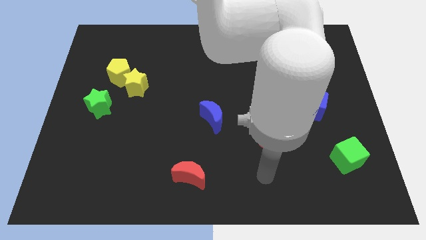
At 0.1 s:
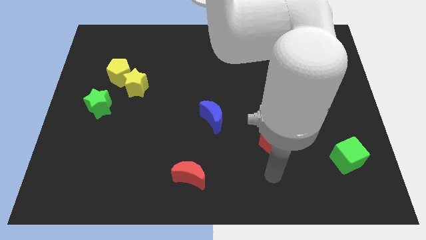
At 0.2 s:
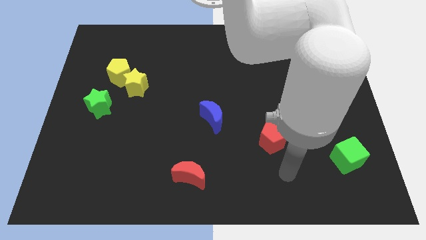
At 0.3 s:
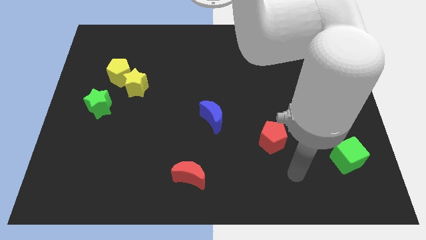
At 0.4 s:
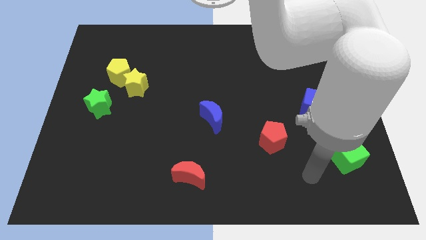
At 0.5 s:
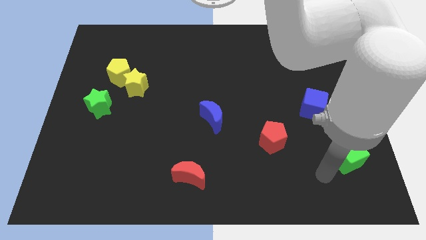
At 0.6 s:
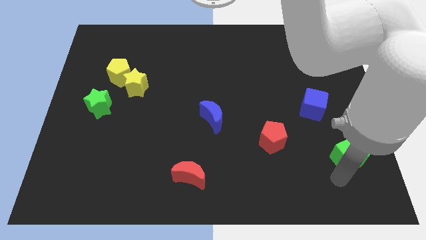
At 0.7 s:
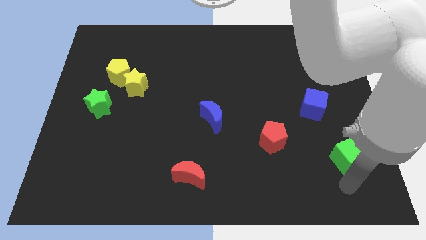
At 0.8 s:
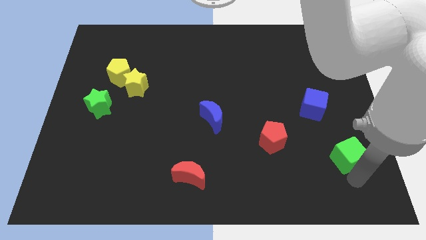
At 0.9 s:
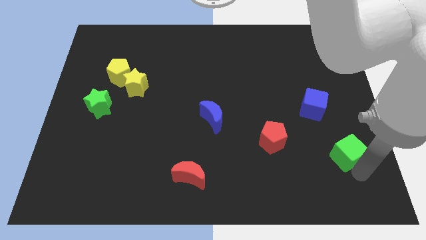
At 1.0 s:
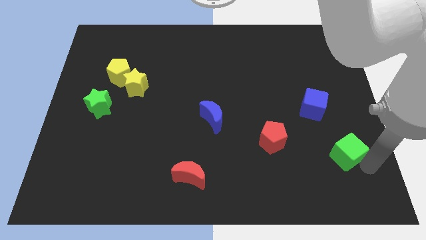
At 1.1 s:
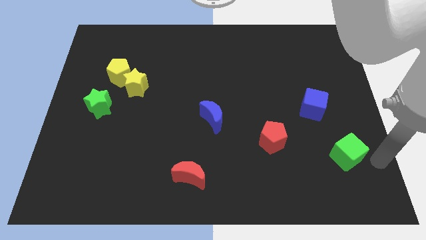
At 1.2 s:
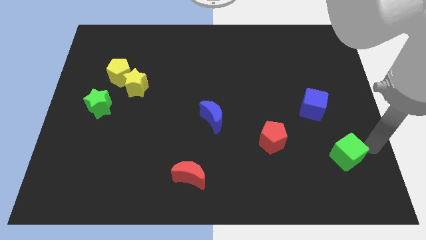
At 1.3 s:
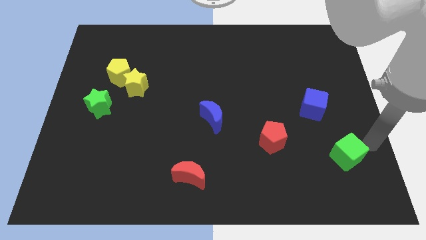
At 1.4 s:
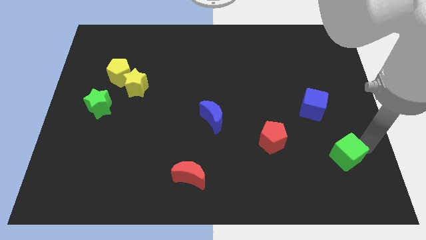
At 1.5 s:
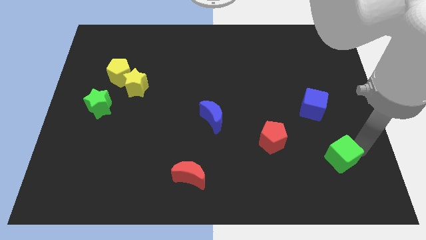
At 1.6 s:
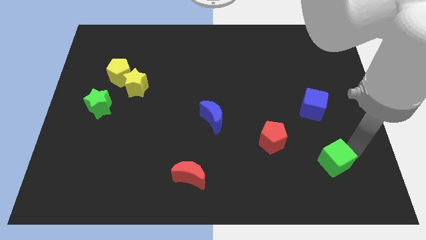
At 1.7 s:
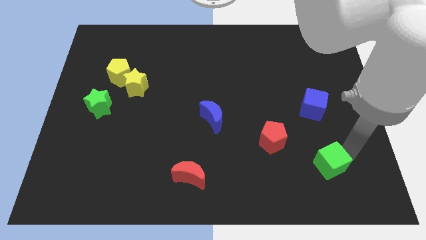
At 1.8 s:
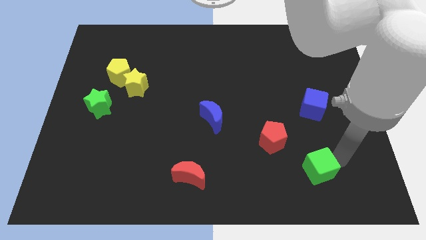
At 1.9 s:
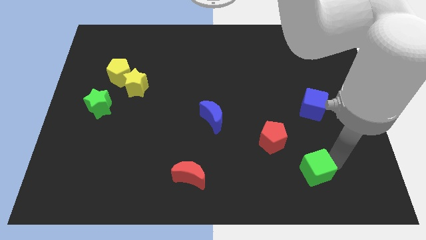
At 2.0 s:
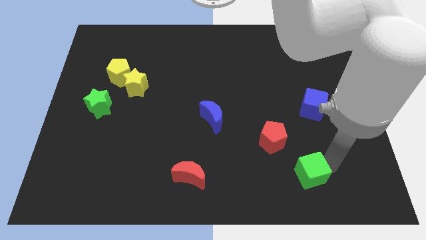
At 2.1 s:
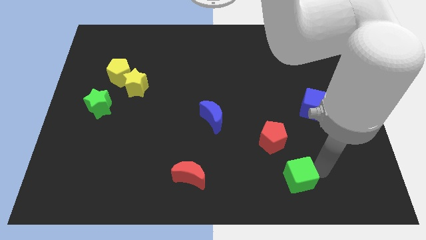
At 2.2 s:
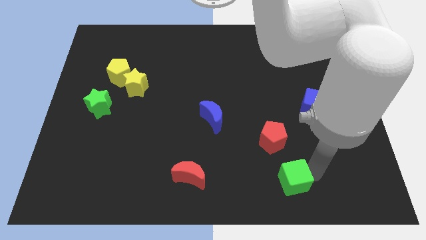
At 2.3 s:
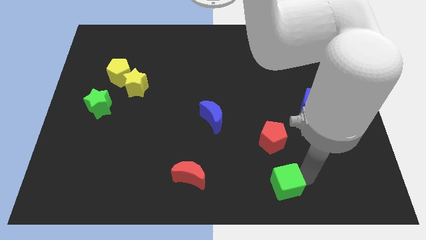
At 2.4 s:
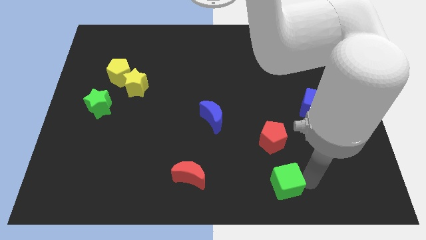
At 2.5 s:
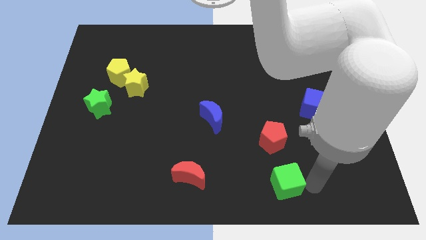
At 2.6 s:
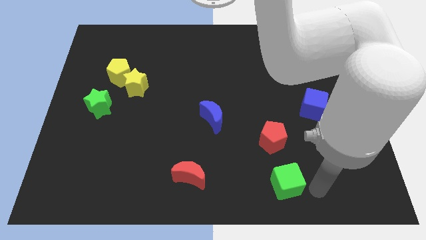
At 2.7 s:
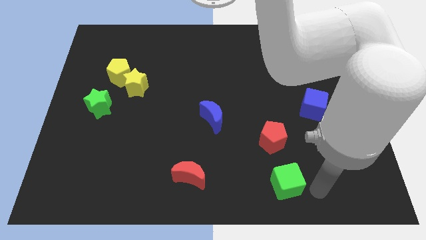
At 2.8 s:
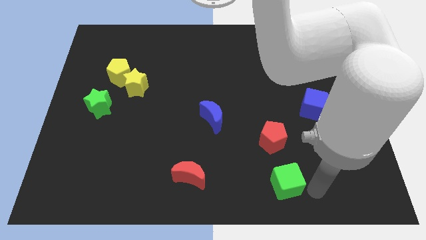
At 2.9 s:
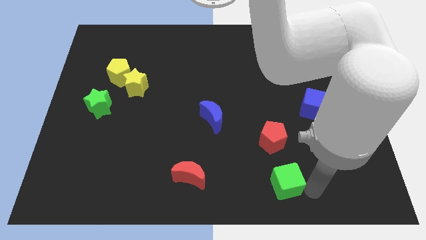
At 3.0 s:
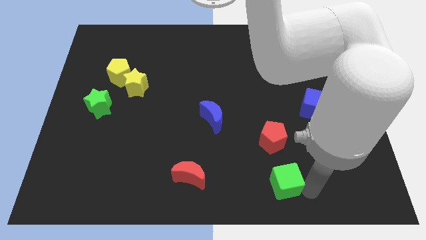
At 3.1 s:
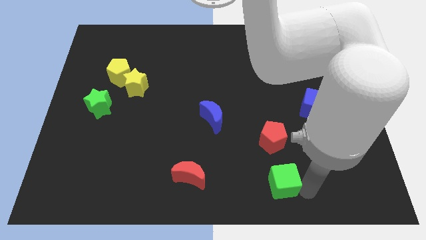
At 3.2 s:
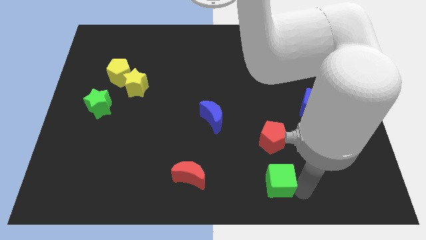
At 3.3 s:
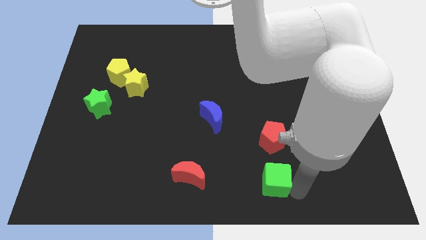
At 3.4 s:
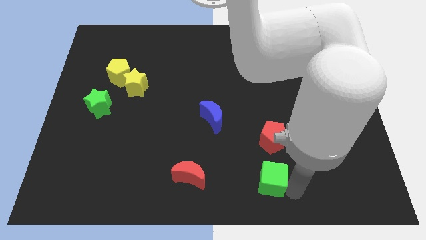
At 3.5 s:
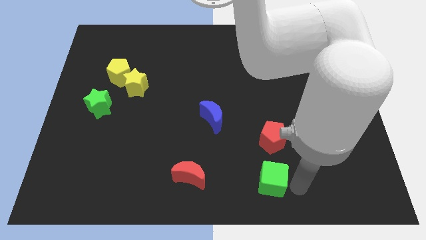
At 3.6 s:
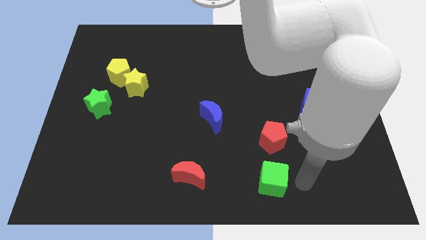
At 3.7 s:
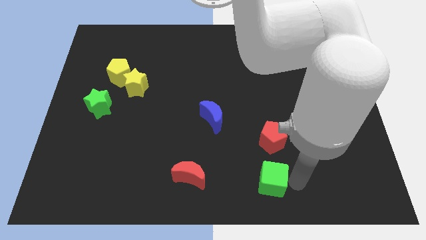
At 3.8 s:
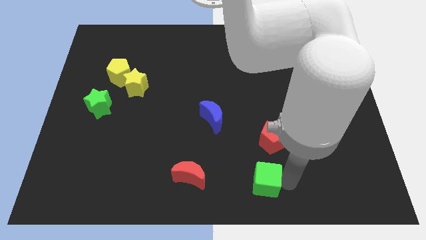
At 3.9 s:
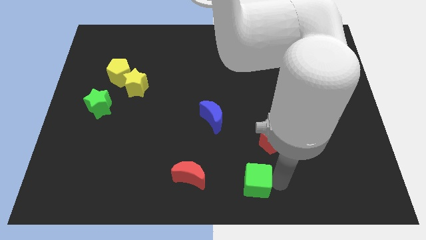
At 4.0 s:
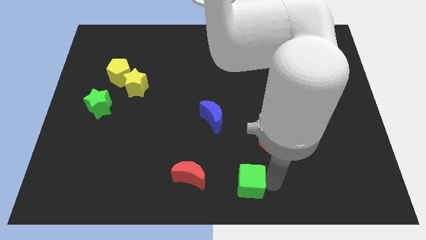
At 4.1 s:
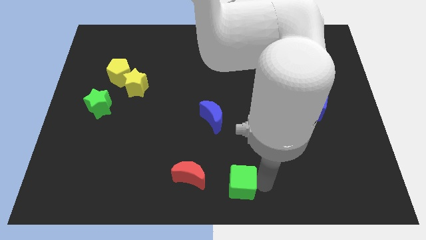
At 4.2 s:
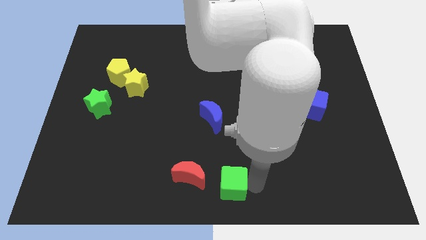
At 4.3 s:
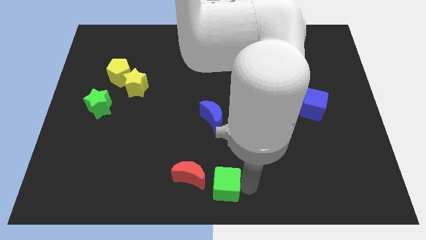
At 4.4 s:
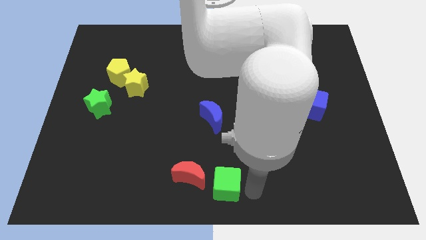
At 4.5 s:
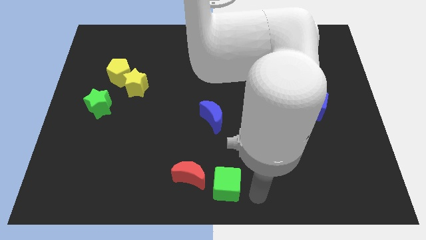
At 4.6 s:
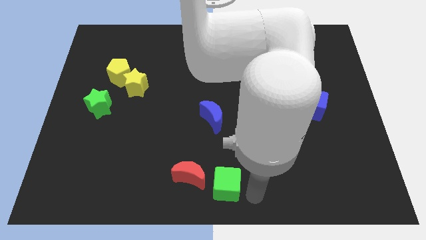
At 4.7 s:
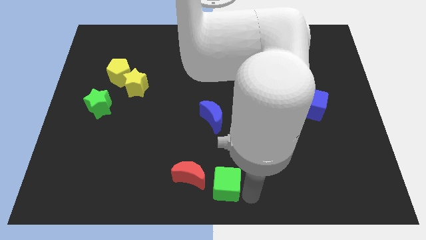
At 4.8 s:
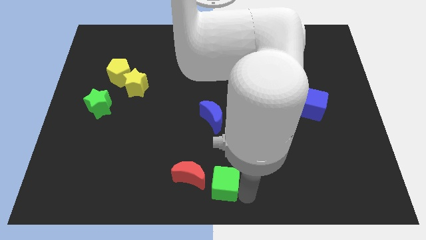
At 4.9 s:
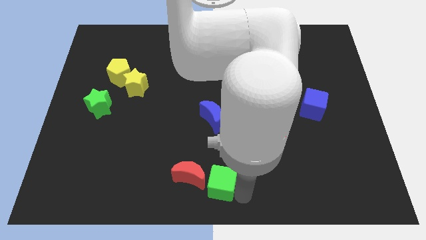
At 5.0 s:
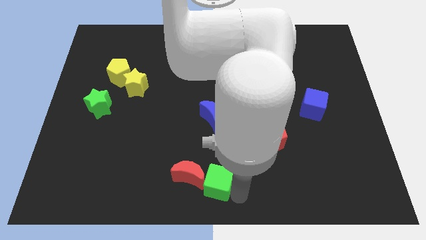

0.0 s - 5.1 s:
put the green cube to the red moon

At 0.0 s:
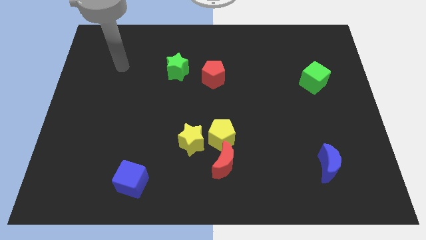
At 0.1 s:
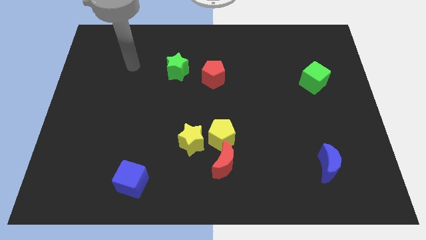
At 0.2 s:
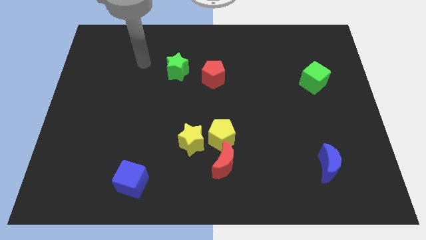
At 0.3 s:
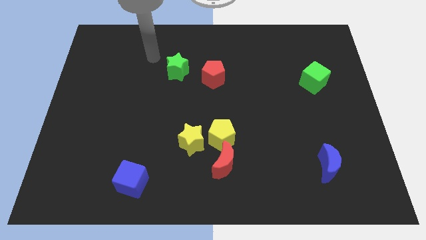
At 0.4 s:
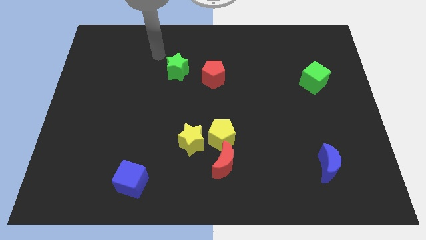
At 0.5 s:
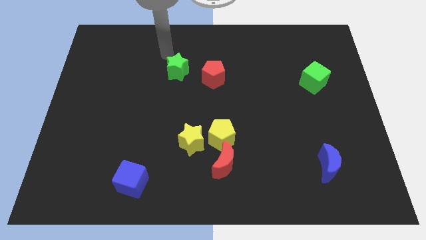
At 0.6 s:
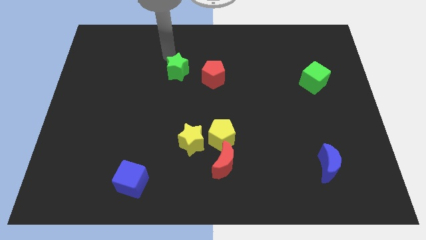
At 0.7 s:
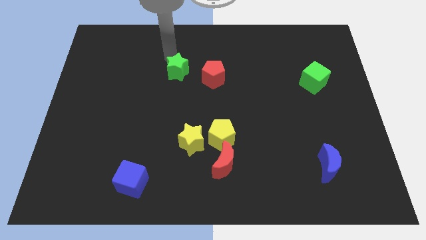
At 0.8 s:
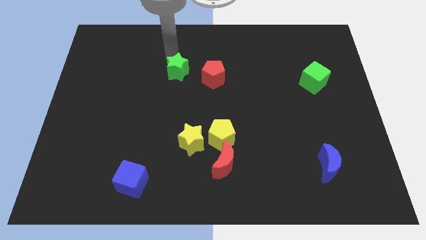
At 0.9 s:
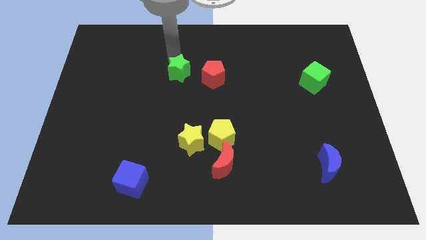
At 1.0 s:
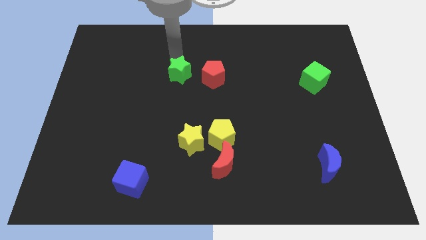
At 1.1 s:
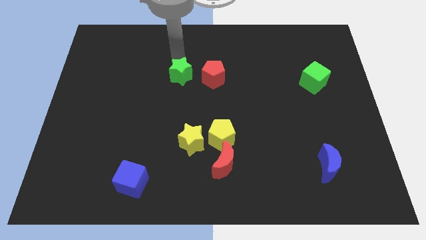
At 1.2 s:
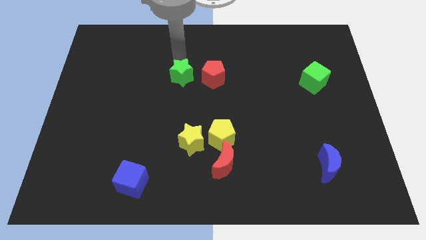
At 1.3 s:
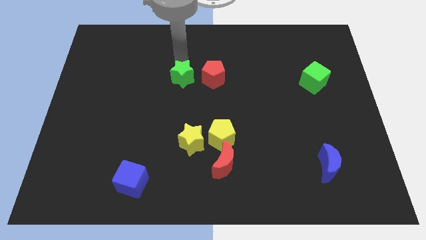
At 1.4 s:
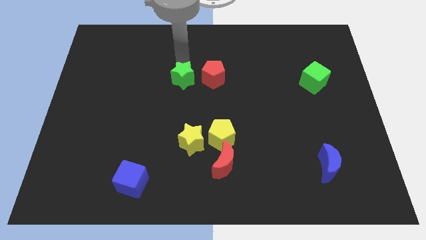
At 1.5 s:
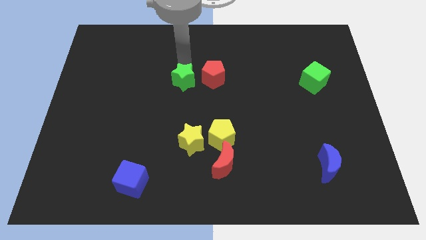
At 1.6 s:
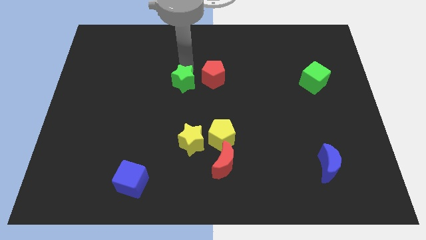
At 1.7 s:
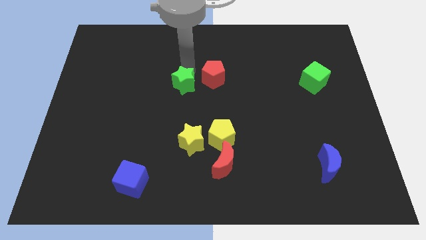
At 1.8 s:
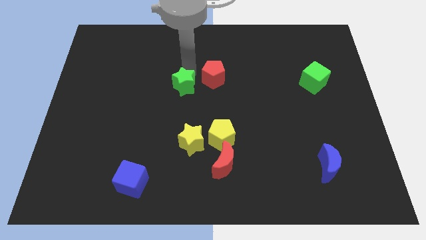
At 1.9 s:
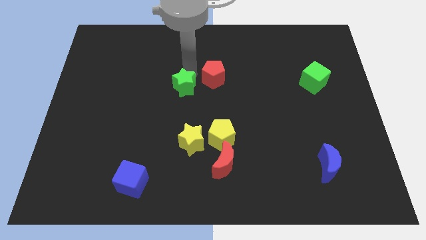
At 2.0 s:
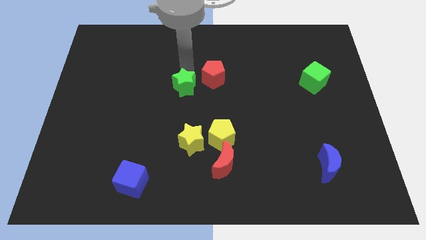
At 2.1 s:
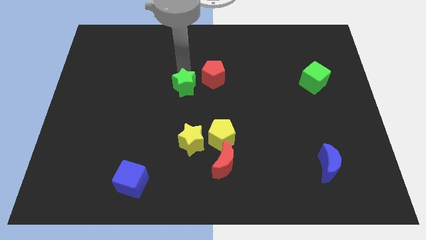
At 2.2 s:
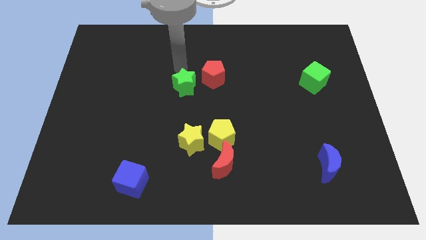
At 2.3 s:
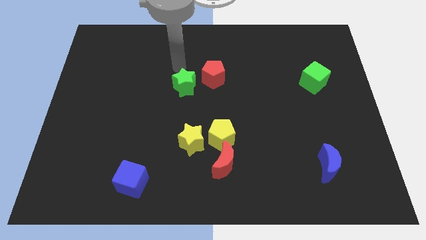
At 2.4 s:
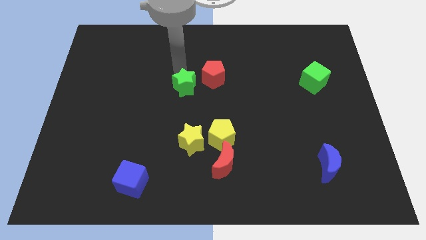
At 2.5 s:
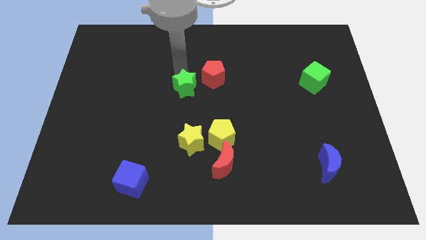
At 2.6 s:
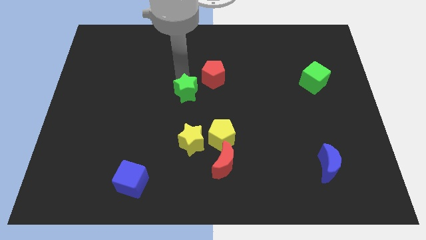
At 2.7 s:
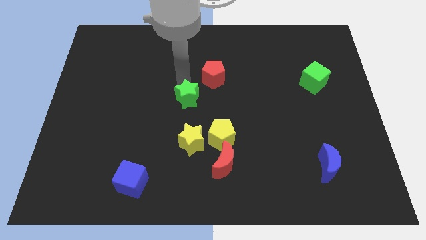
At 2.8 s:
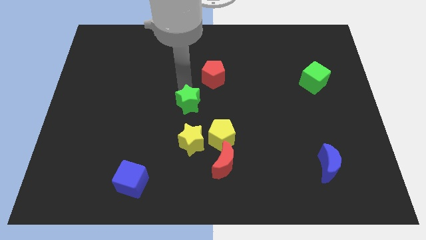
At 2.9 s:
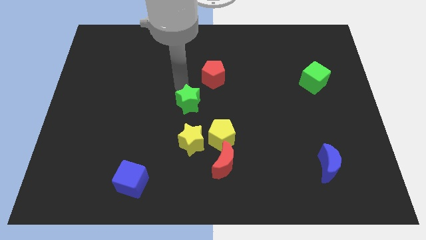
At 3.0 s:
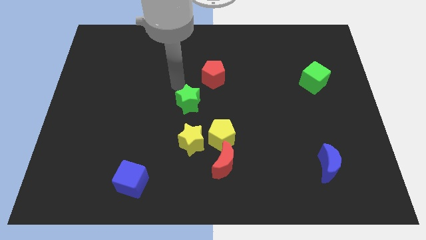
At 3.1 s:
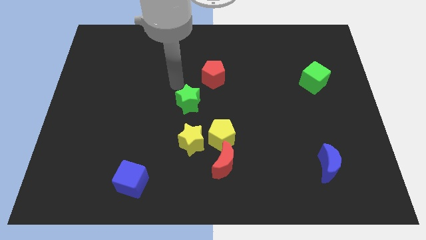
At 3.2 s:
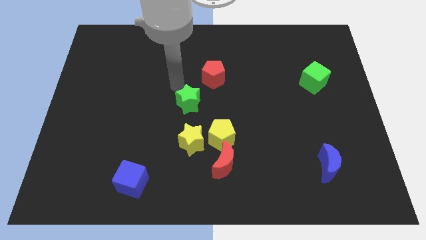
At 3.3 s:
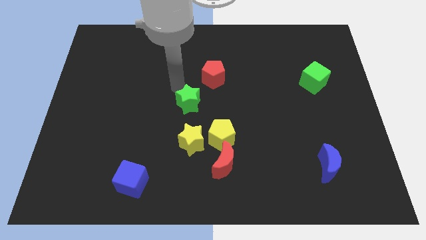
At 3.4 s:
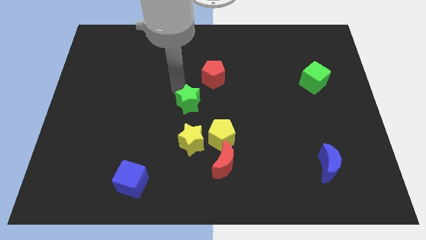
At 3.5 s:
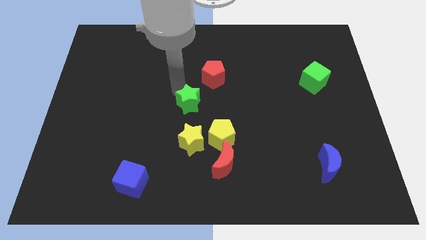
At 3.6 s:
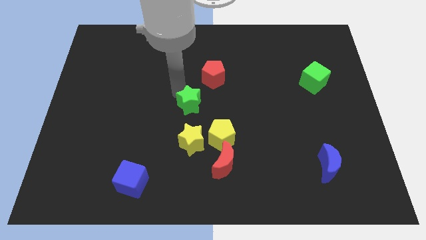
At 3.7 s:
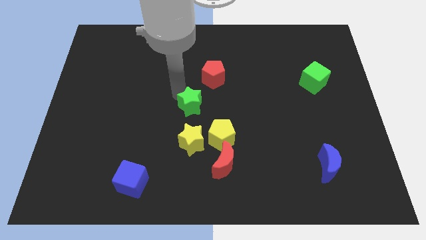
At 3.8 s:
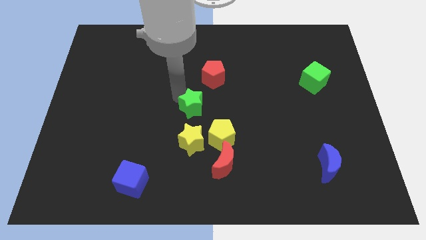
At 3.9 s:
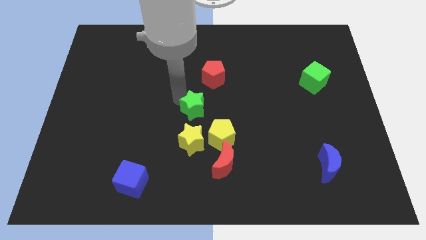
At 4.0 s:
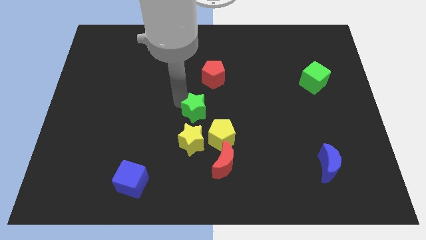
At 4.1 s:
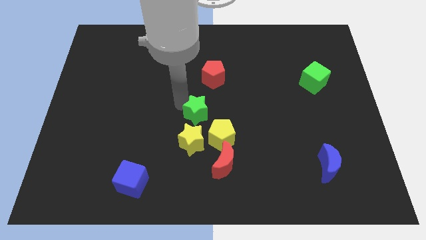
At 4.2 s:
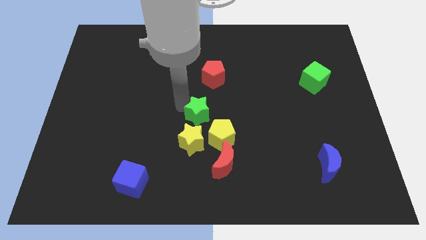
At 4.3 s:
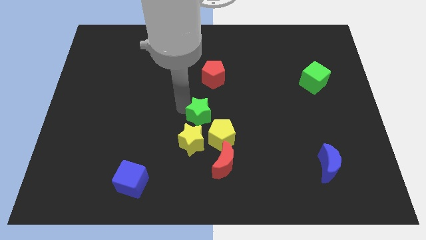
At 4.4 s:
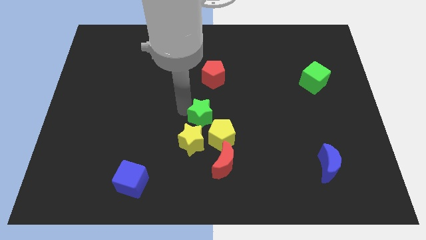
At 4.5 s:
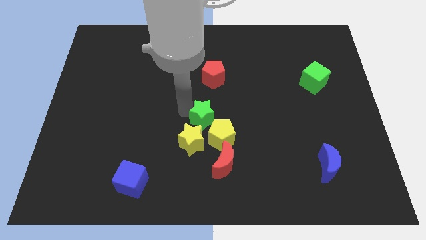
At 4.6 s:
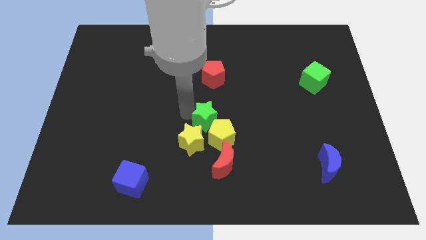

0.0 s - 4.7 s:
put the green star close to the yellow pentagon
